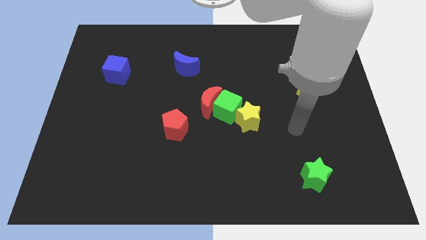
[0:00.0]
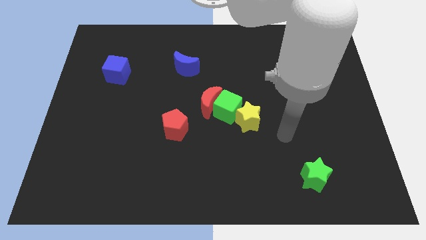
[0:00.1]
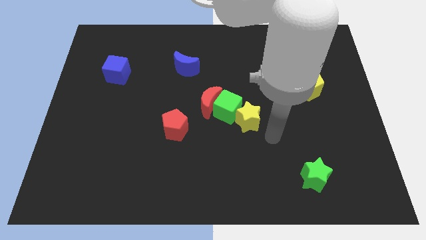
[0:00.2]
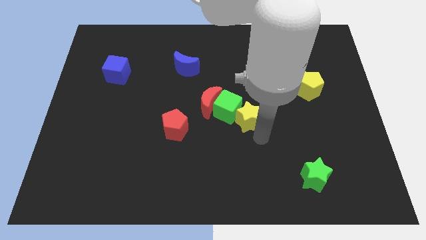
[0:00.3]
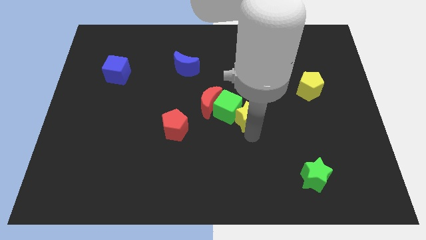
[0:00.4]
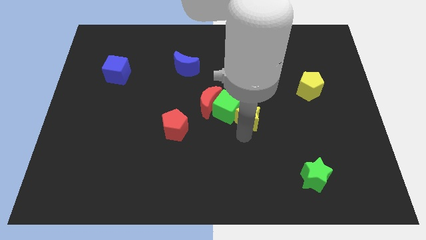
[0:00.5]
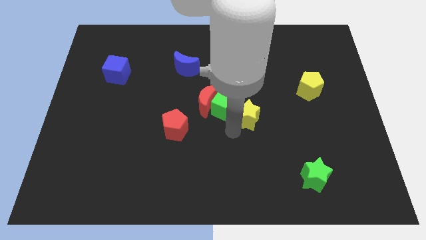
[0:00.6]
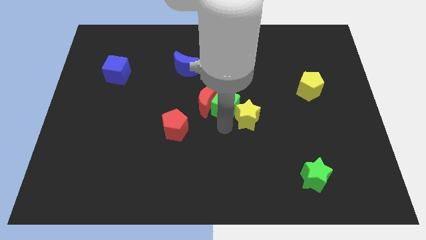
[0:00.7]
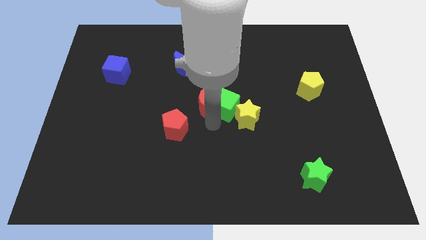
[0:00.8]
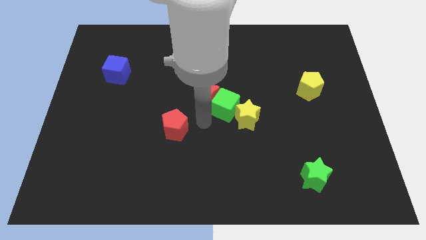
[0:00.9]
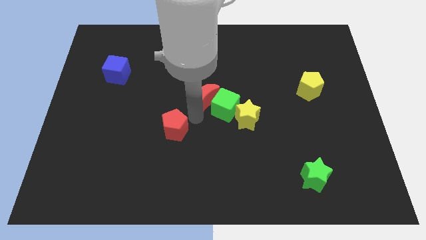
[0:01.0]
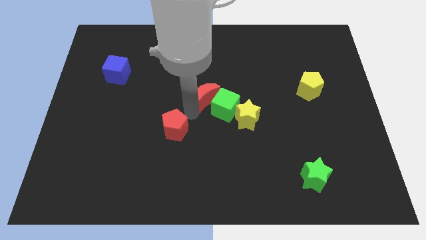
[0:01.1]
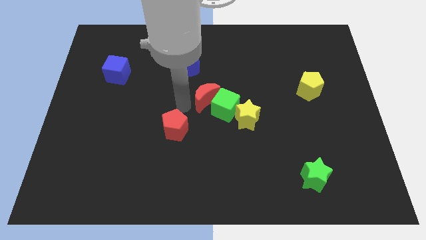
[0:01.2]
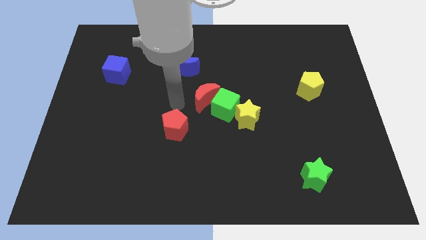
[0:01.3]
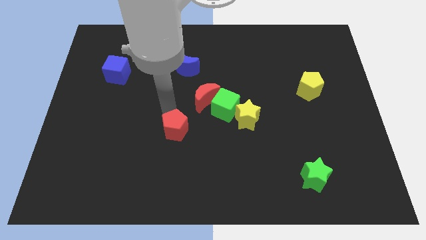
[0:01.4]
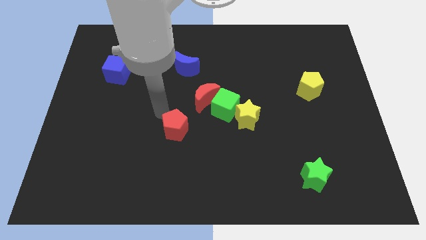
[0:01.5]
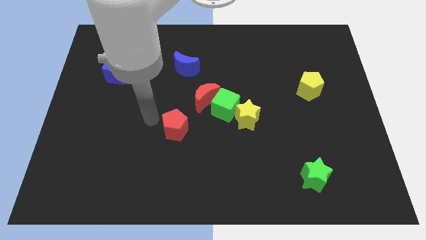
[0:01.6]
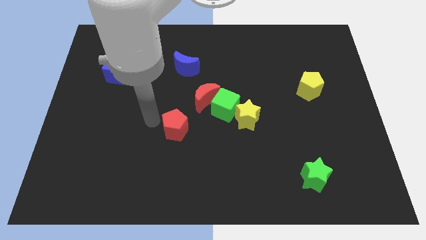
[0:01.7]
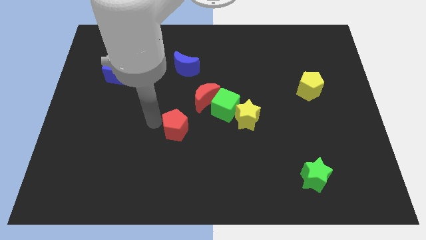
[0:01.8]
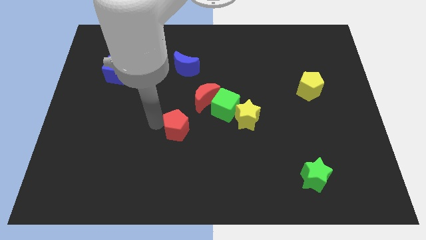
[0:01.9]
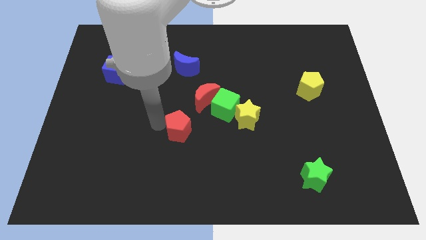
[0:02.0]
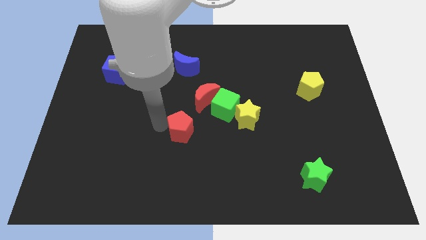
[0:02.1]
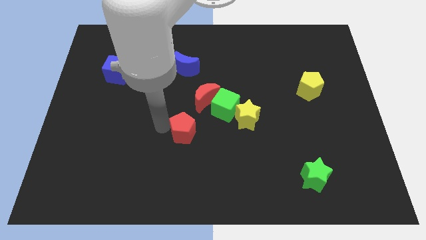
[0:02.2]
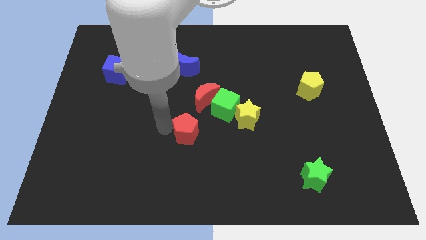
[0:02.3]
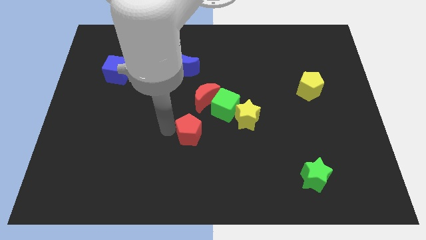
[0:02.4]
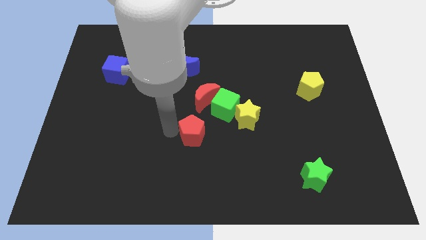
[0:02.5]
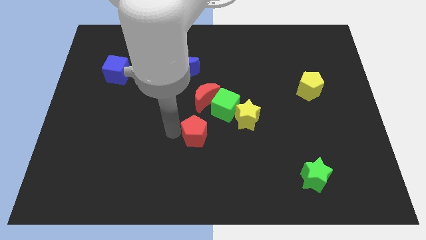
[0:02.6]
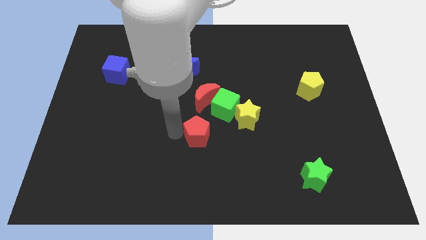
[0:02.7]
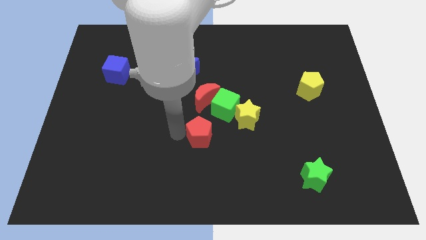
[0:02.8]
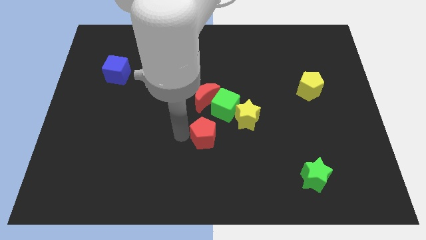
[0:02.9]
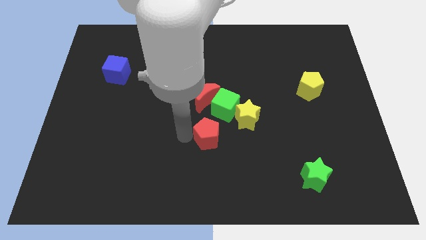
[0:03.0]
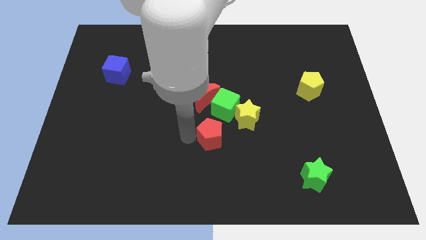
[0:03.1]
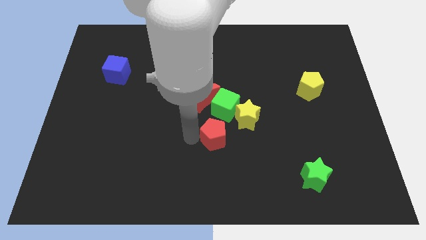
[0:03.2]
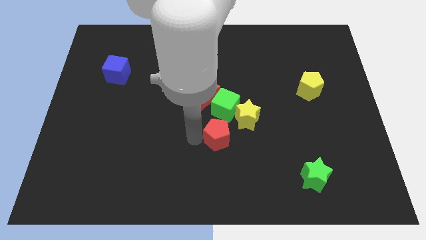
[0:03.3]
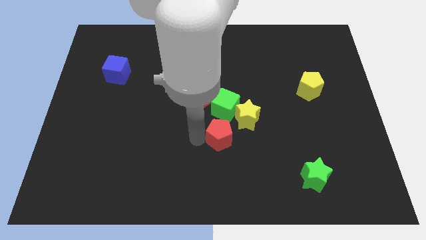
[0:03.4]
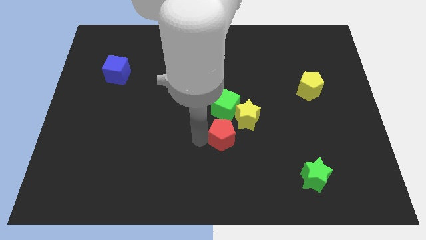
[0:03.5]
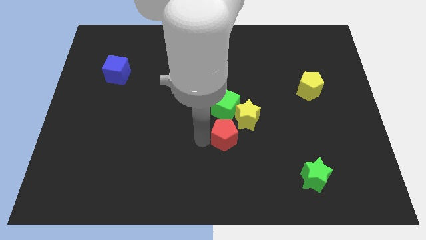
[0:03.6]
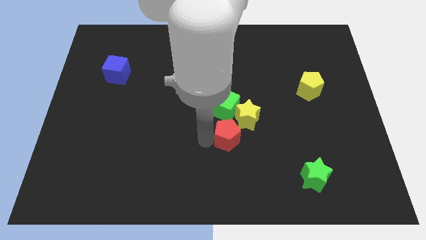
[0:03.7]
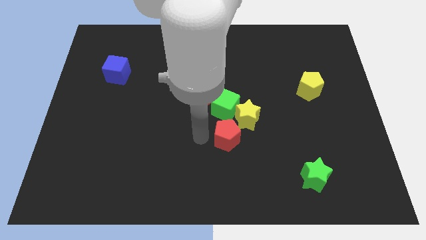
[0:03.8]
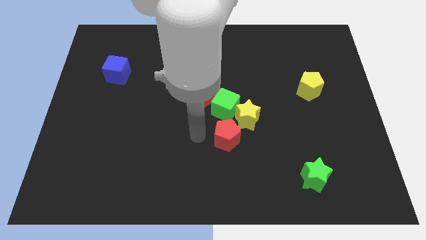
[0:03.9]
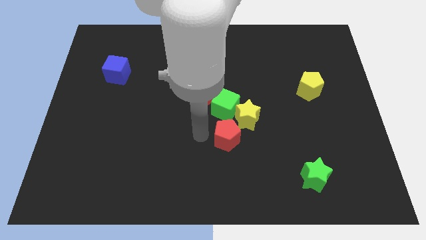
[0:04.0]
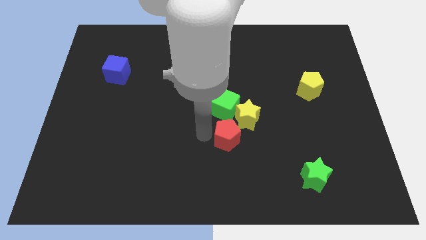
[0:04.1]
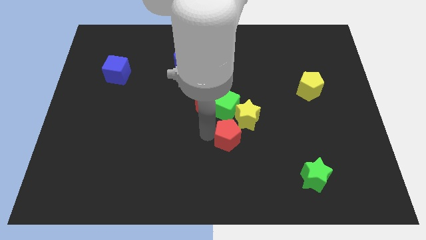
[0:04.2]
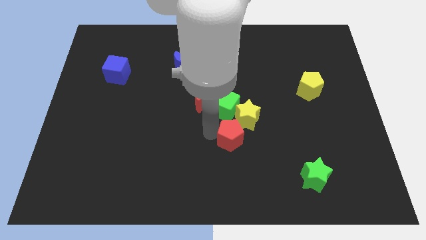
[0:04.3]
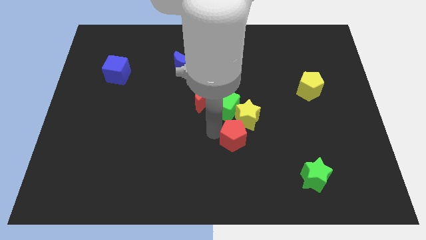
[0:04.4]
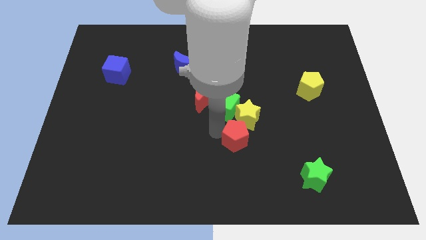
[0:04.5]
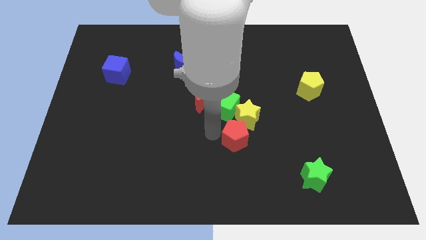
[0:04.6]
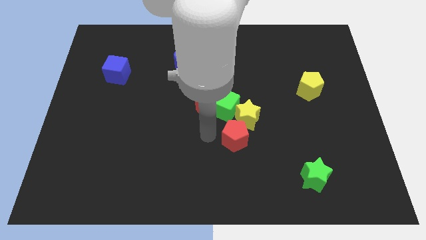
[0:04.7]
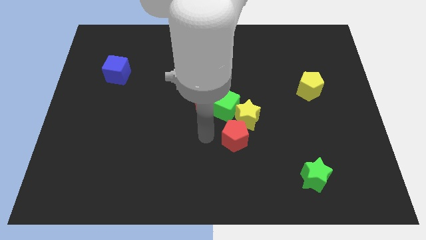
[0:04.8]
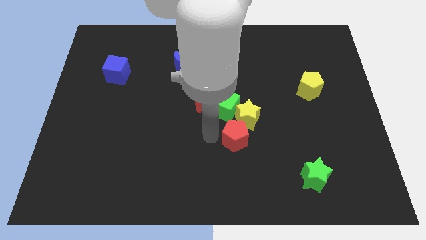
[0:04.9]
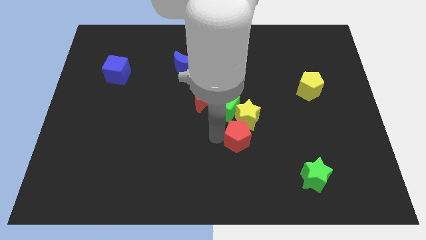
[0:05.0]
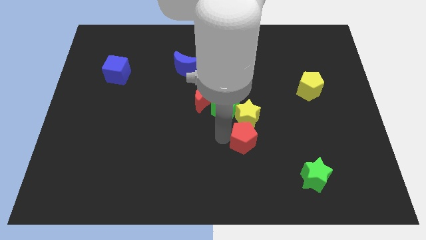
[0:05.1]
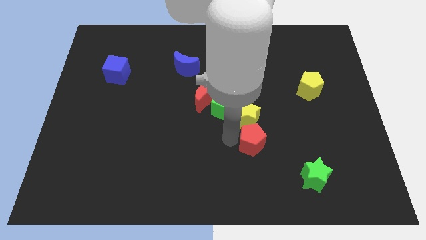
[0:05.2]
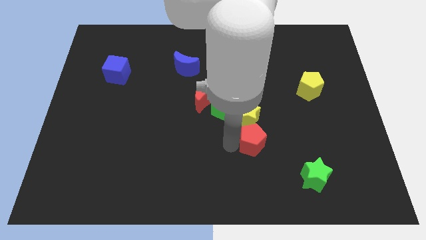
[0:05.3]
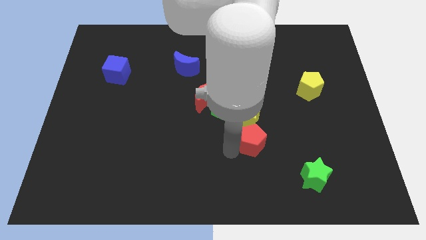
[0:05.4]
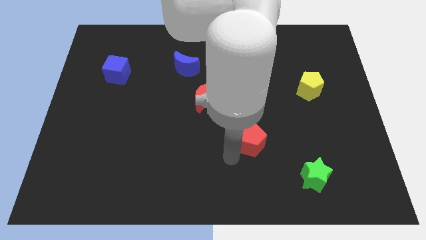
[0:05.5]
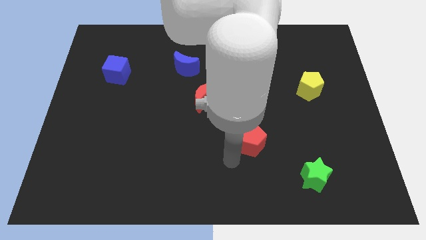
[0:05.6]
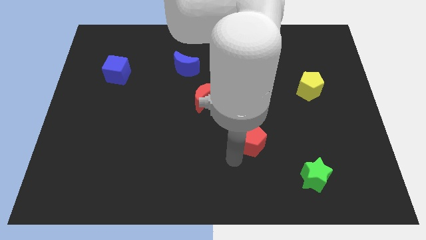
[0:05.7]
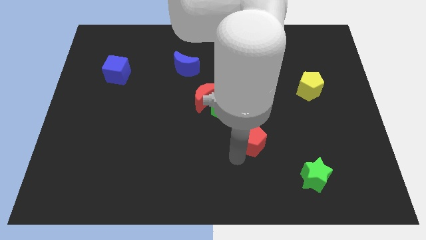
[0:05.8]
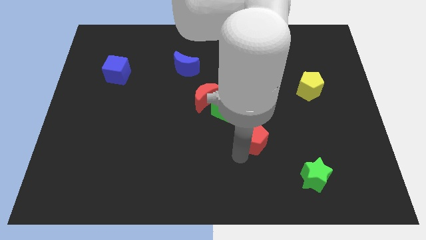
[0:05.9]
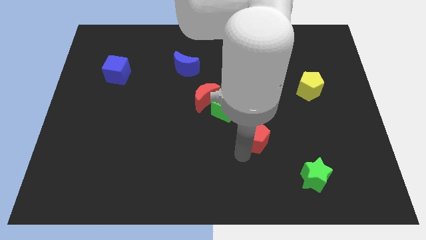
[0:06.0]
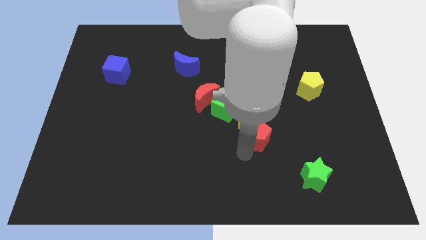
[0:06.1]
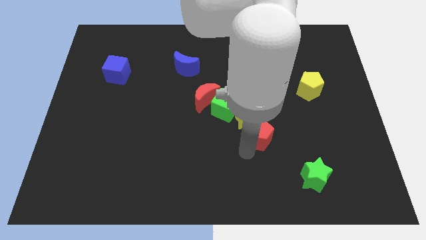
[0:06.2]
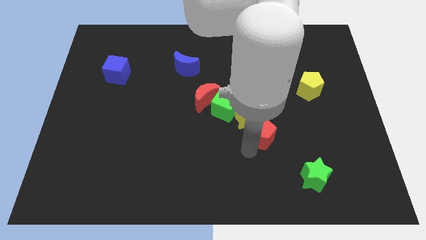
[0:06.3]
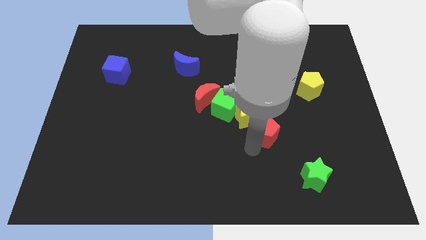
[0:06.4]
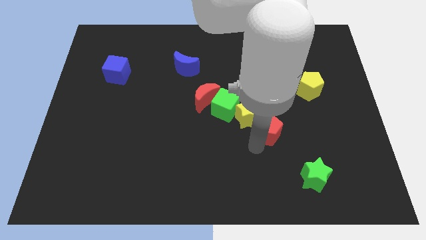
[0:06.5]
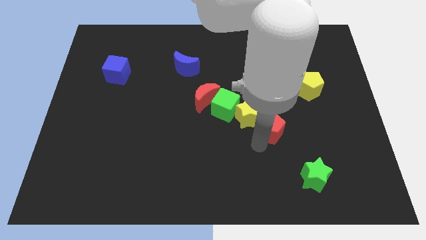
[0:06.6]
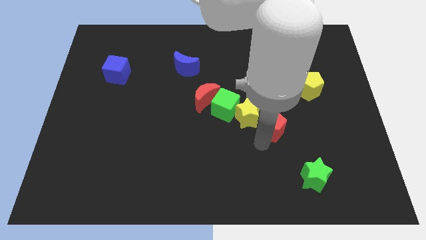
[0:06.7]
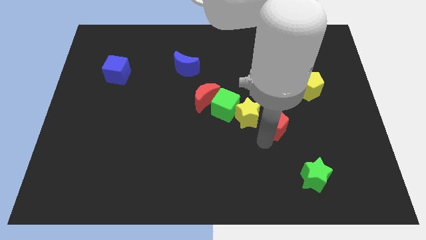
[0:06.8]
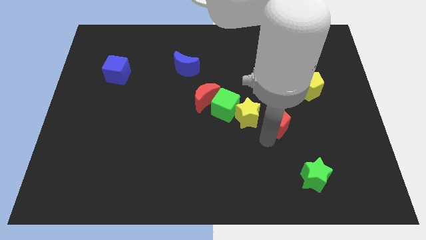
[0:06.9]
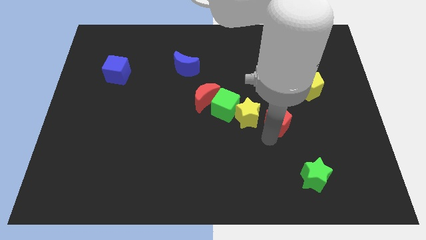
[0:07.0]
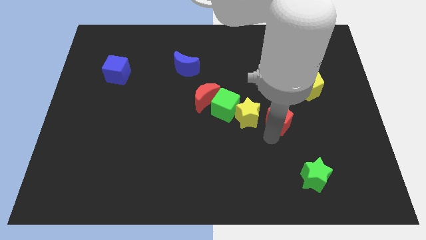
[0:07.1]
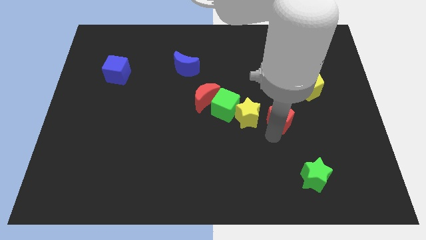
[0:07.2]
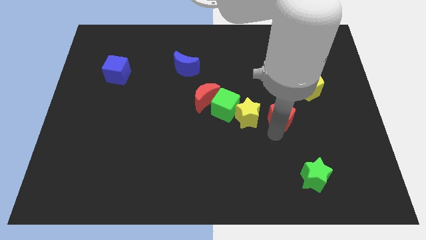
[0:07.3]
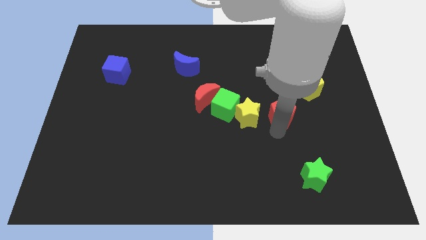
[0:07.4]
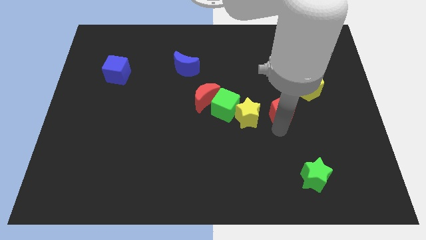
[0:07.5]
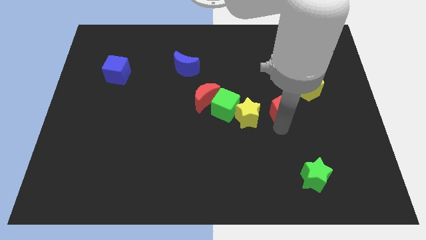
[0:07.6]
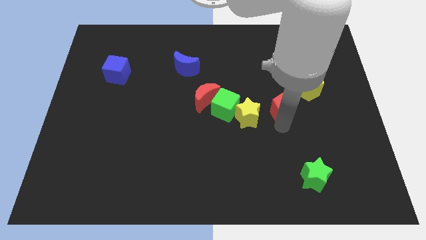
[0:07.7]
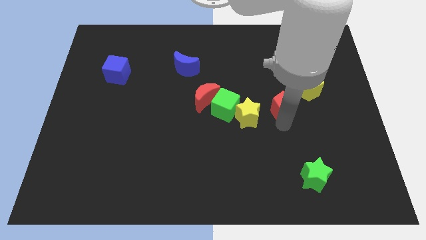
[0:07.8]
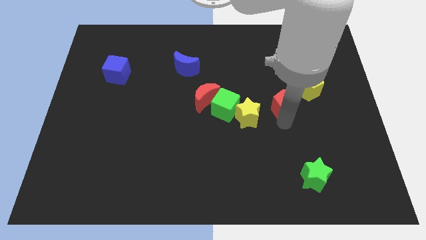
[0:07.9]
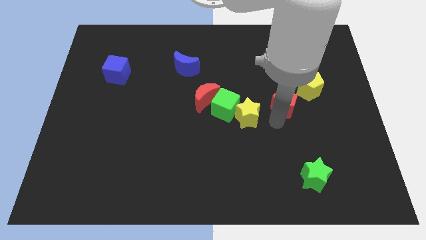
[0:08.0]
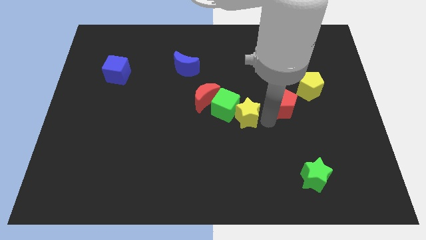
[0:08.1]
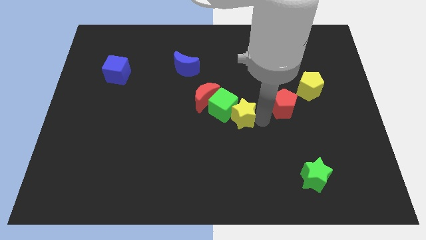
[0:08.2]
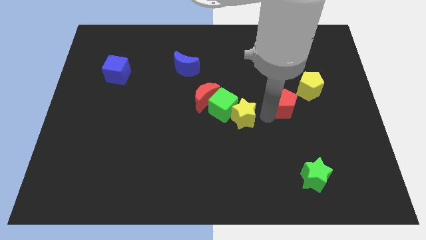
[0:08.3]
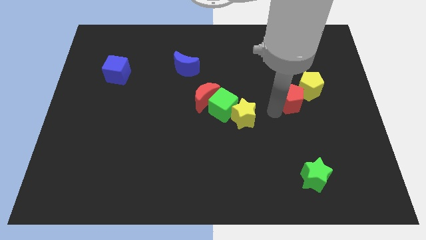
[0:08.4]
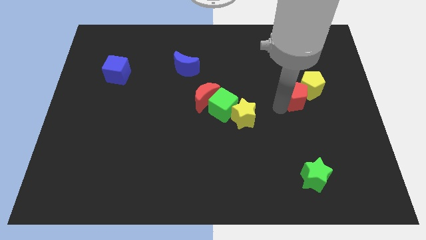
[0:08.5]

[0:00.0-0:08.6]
slide the red pentagon to the yellow pentagon
